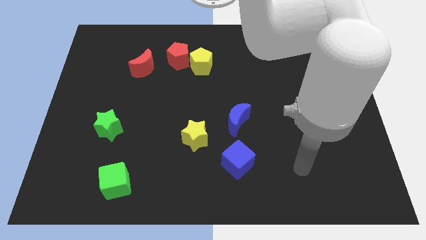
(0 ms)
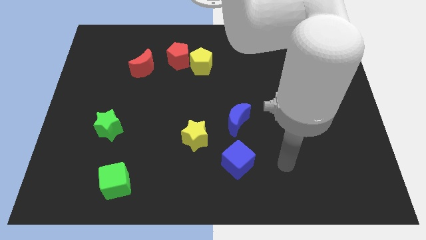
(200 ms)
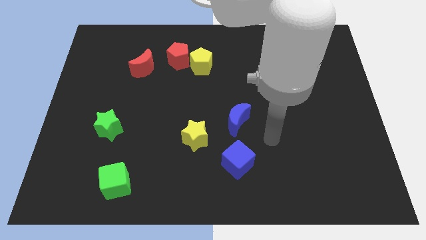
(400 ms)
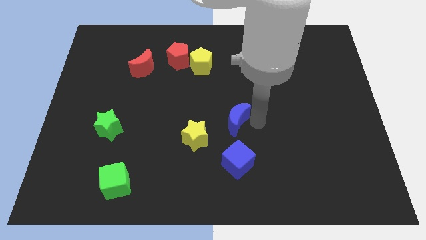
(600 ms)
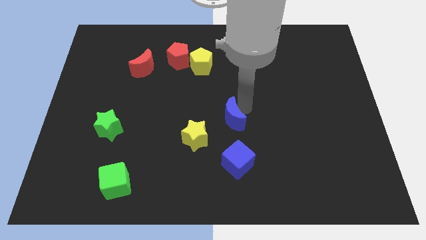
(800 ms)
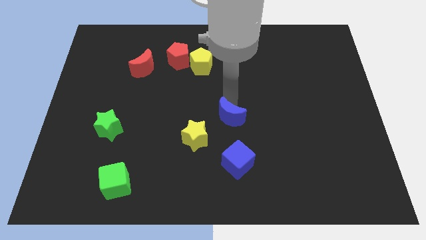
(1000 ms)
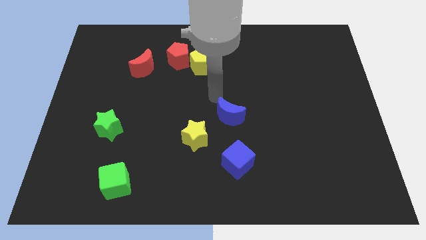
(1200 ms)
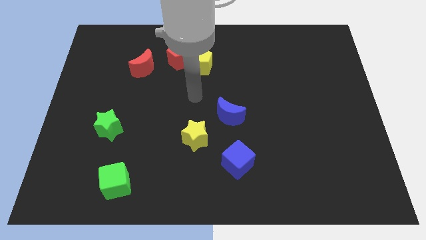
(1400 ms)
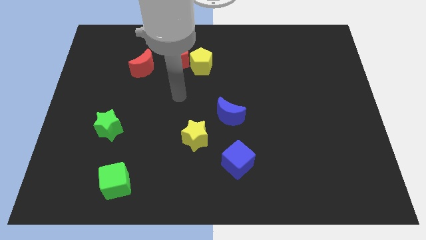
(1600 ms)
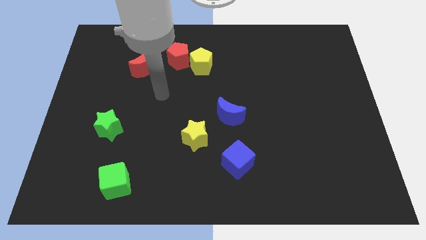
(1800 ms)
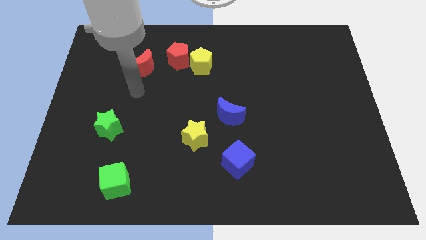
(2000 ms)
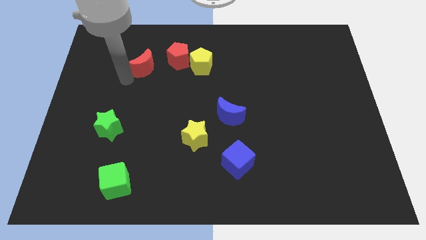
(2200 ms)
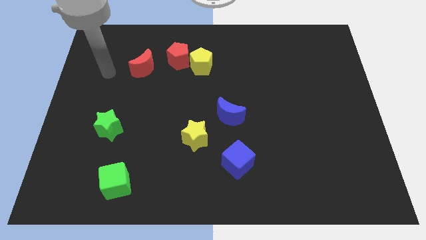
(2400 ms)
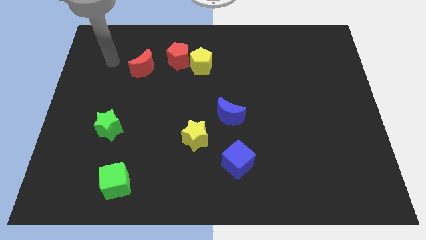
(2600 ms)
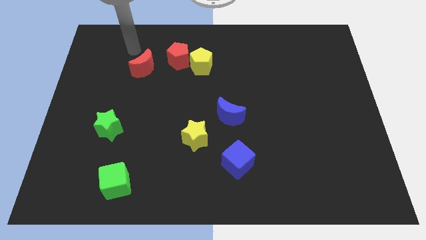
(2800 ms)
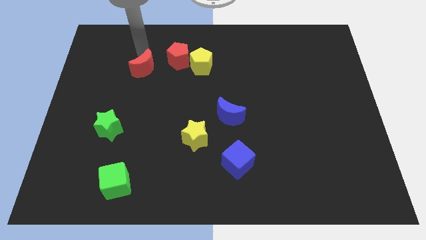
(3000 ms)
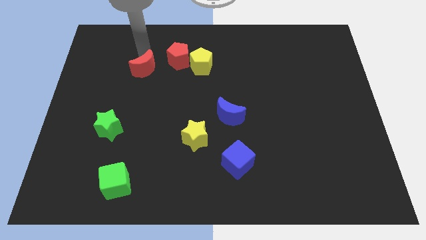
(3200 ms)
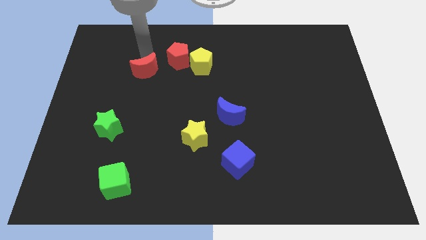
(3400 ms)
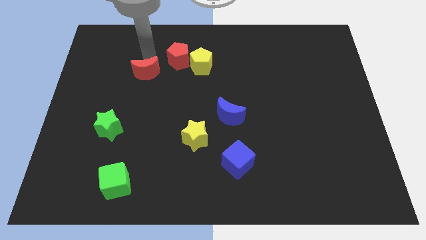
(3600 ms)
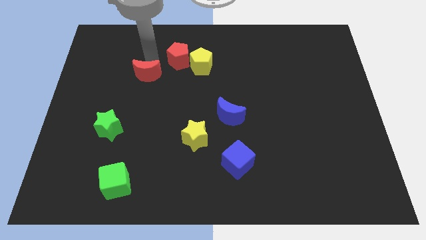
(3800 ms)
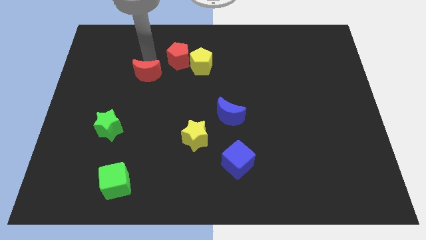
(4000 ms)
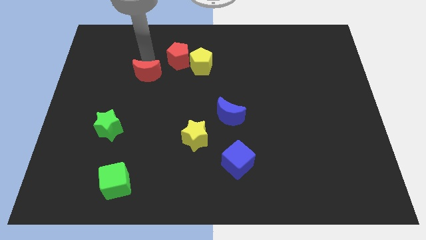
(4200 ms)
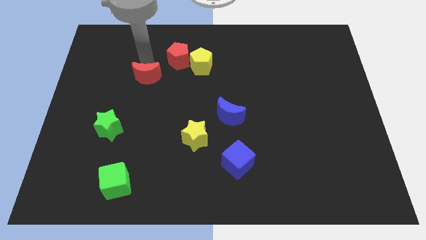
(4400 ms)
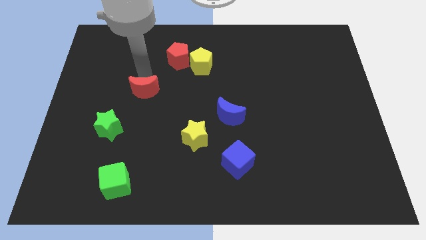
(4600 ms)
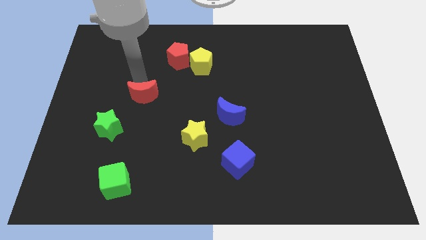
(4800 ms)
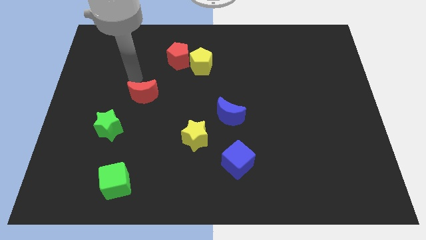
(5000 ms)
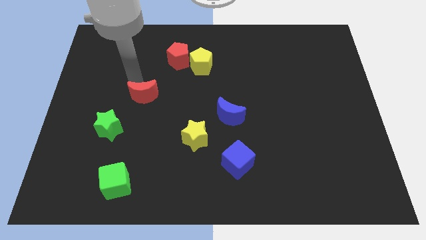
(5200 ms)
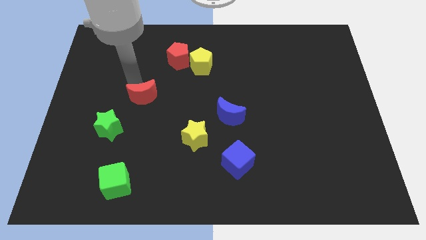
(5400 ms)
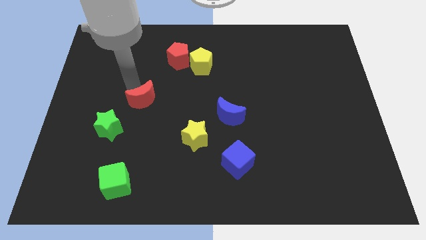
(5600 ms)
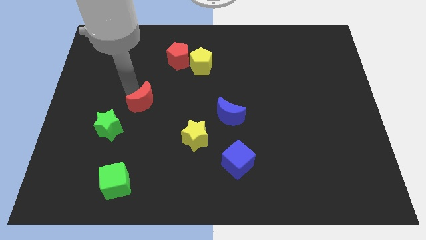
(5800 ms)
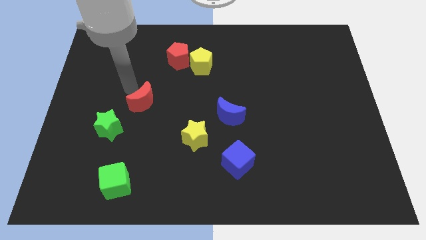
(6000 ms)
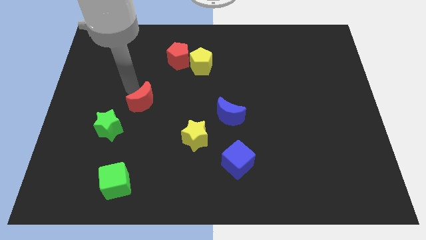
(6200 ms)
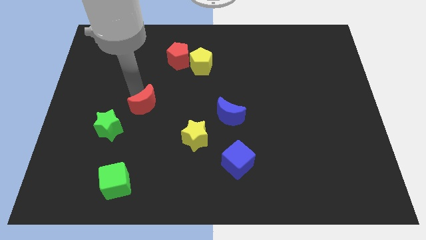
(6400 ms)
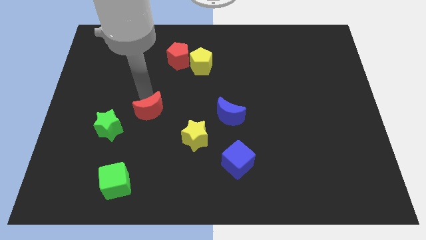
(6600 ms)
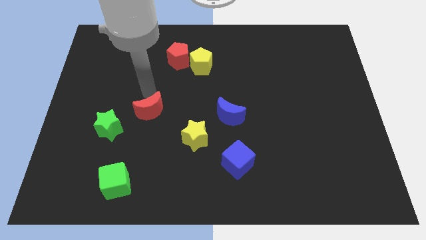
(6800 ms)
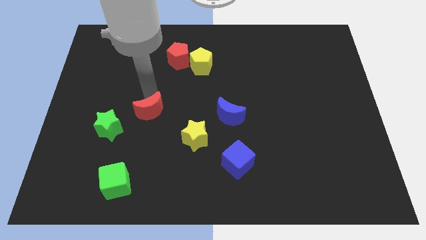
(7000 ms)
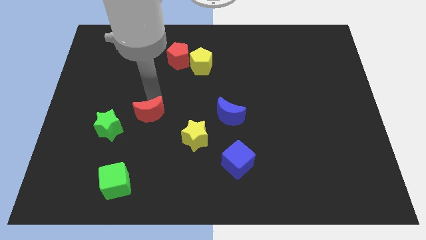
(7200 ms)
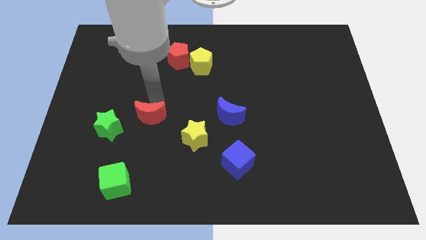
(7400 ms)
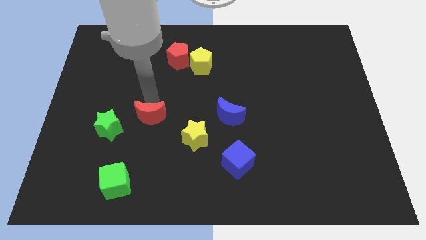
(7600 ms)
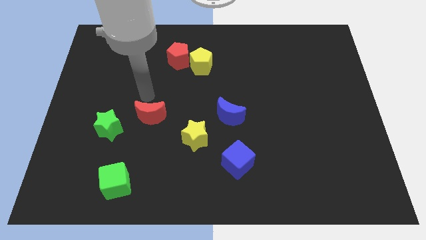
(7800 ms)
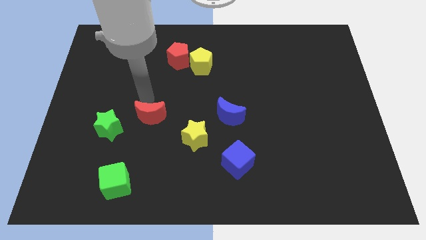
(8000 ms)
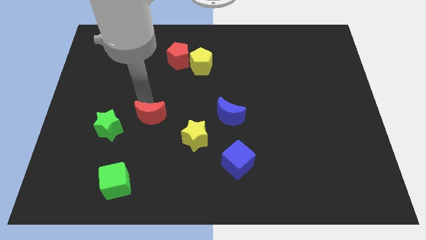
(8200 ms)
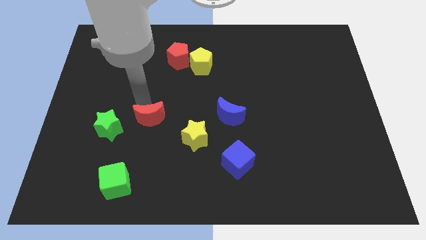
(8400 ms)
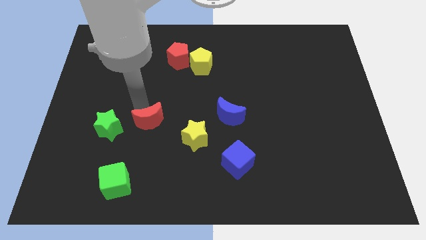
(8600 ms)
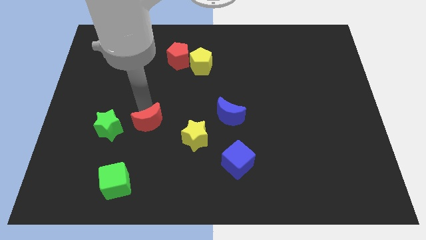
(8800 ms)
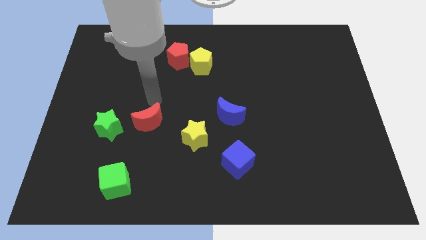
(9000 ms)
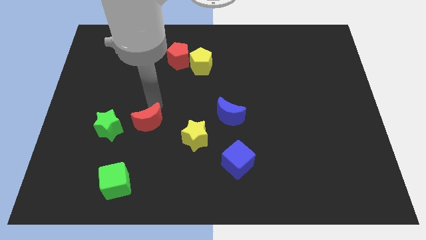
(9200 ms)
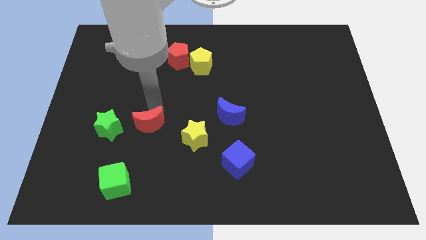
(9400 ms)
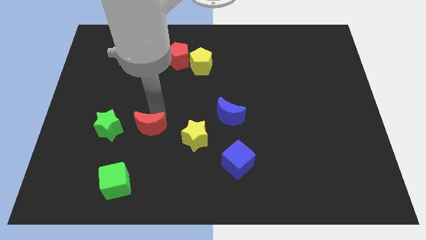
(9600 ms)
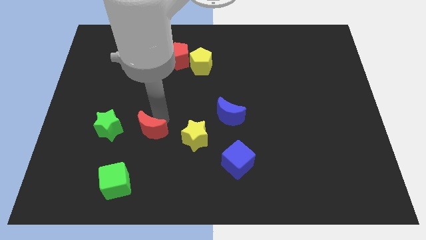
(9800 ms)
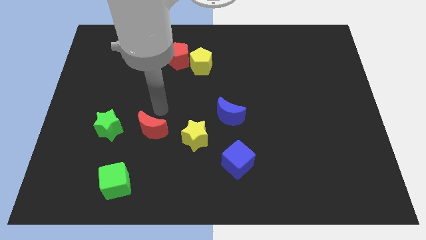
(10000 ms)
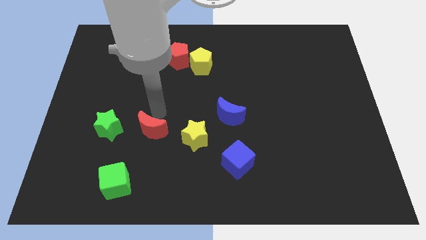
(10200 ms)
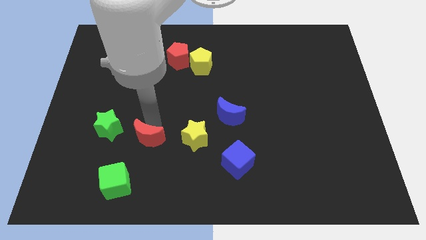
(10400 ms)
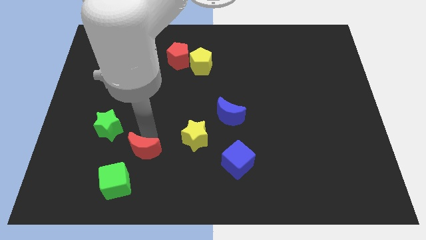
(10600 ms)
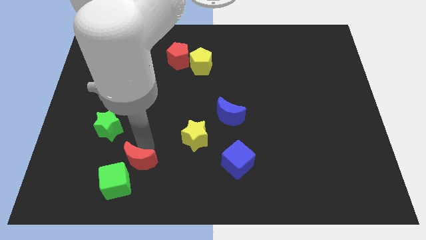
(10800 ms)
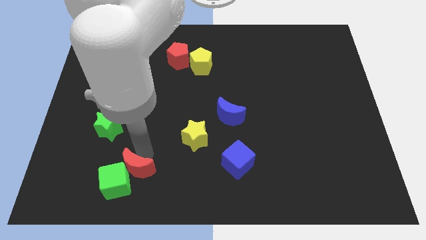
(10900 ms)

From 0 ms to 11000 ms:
put the red moon towards the green cube

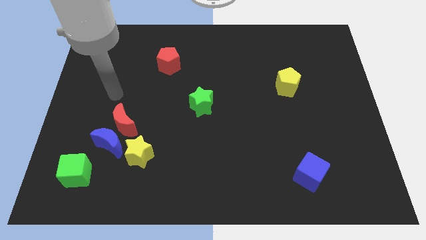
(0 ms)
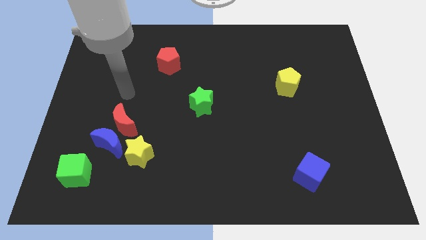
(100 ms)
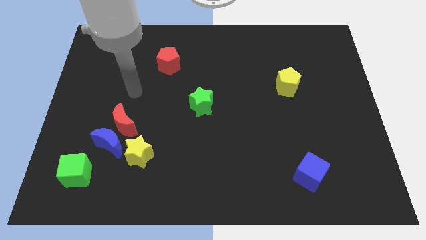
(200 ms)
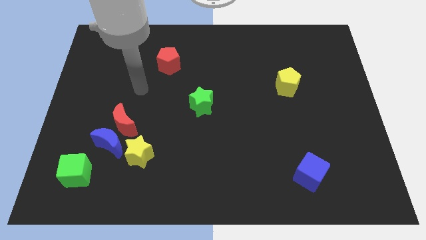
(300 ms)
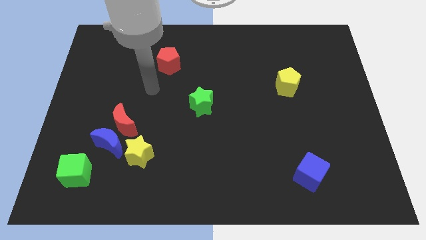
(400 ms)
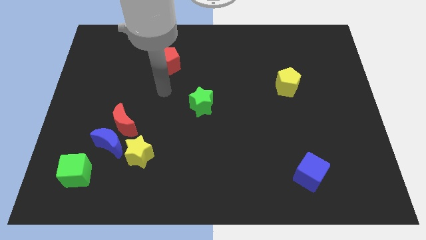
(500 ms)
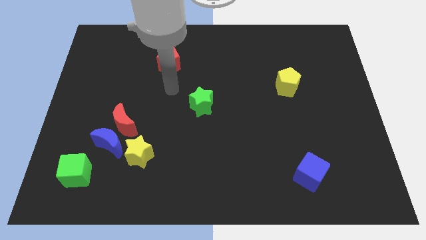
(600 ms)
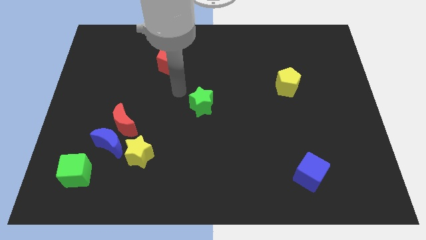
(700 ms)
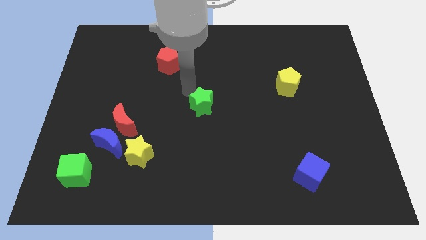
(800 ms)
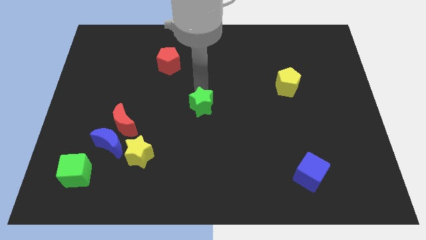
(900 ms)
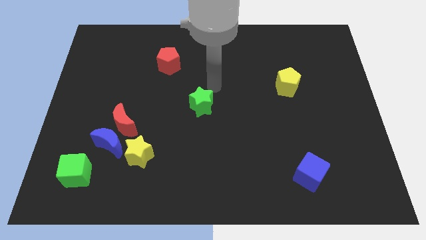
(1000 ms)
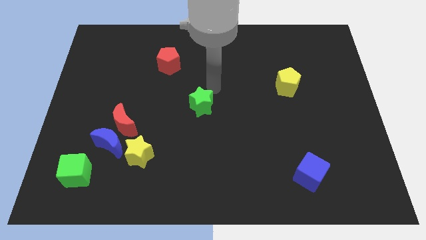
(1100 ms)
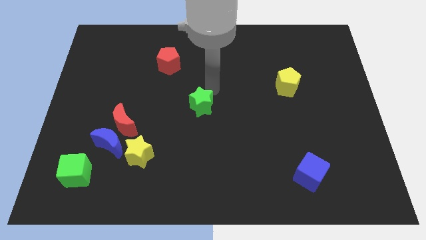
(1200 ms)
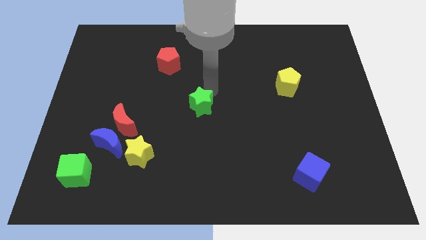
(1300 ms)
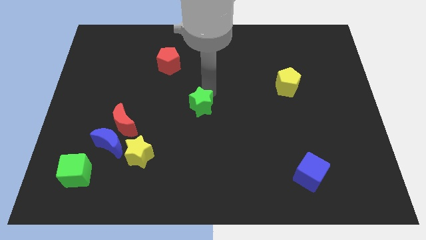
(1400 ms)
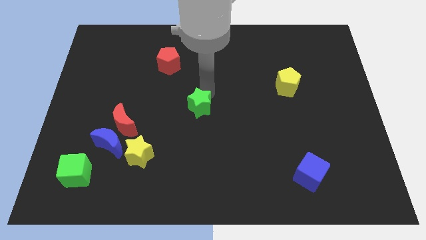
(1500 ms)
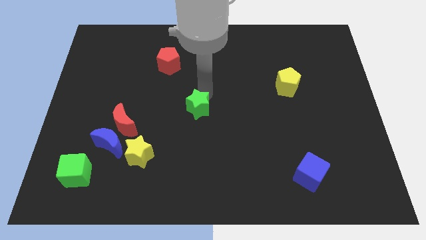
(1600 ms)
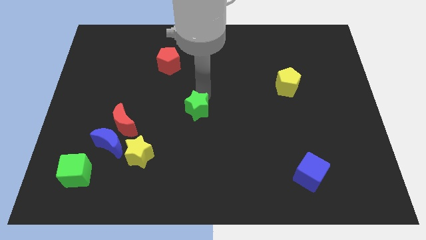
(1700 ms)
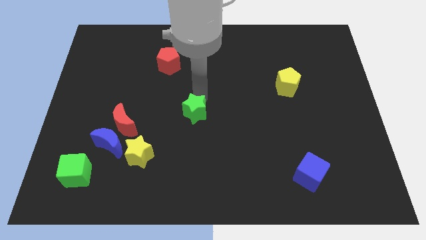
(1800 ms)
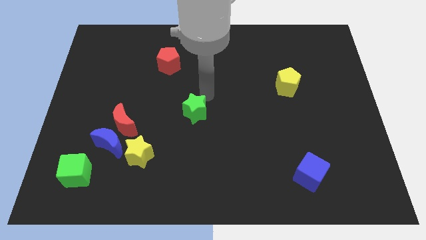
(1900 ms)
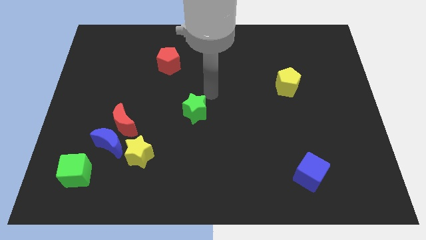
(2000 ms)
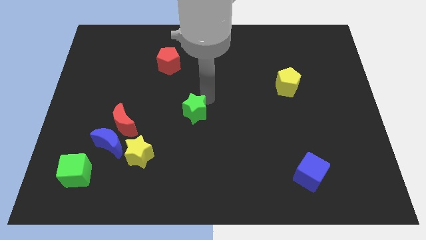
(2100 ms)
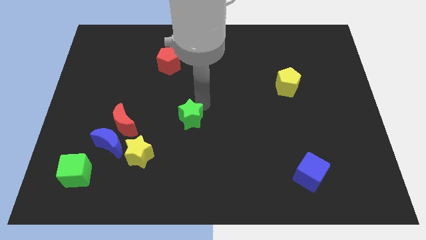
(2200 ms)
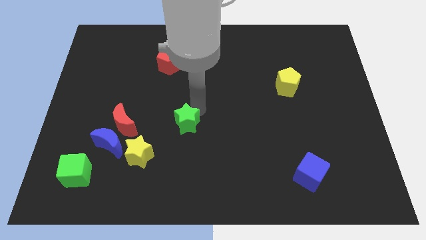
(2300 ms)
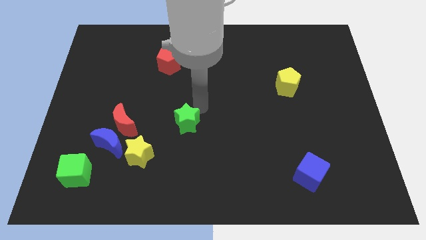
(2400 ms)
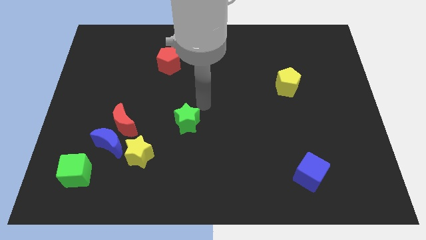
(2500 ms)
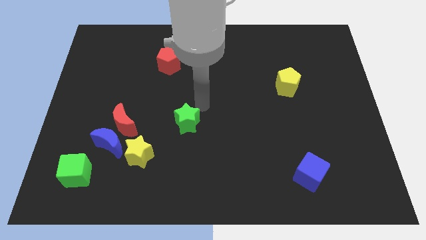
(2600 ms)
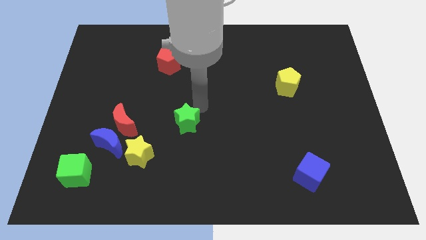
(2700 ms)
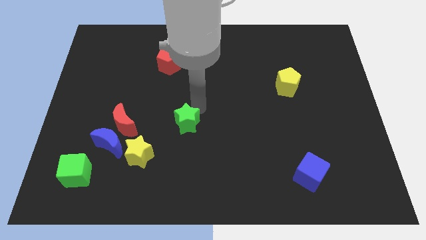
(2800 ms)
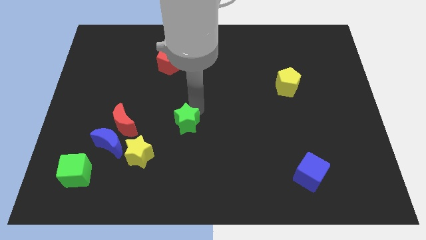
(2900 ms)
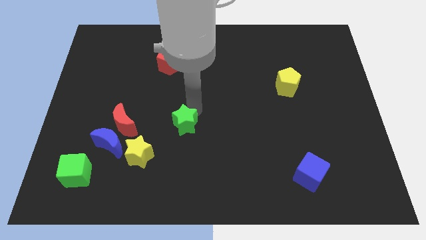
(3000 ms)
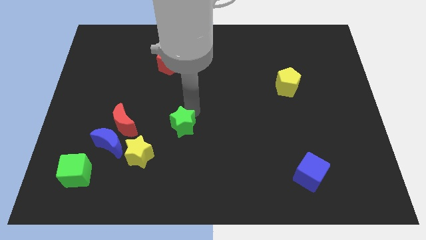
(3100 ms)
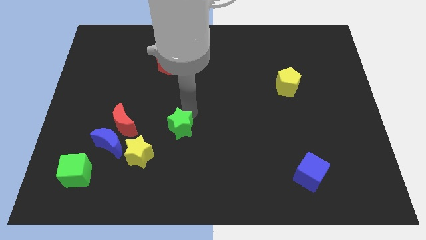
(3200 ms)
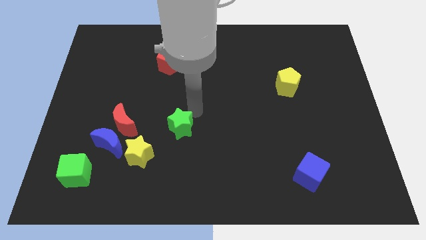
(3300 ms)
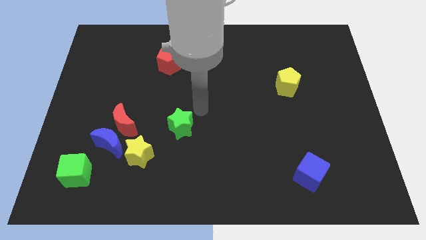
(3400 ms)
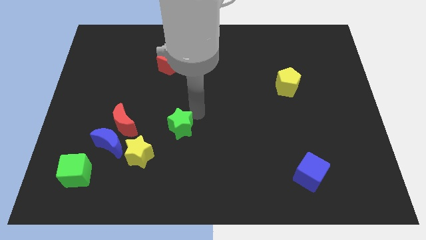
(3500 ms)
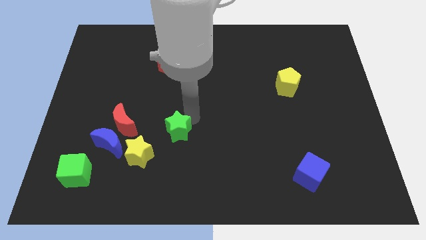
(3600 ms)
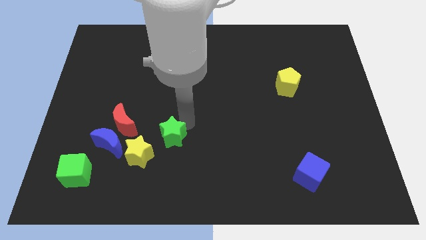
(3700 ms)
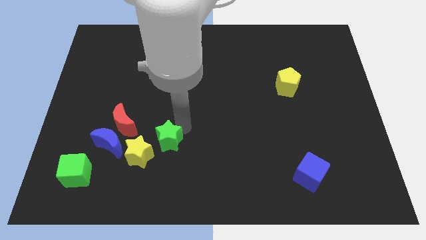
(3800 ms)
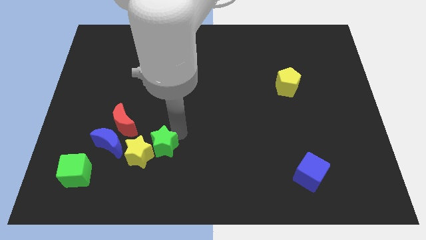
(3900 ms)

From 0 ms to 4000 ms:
put the green star next to the yellow star
